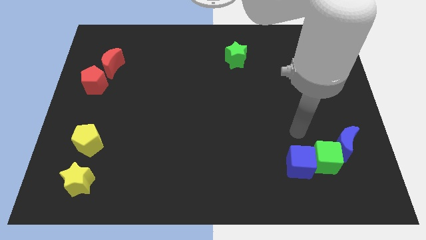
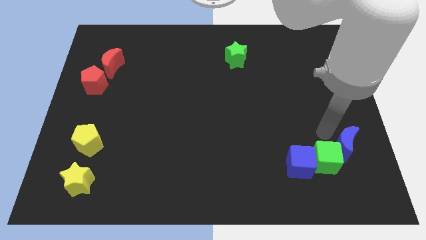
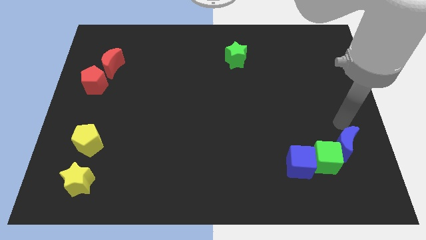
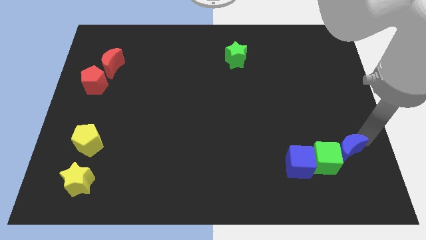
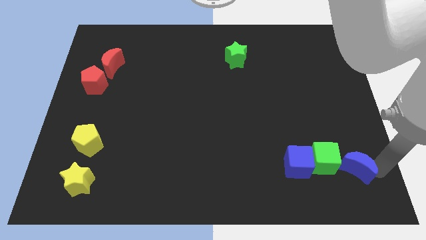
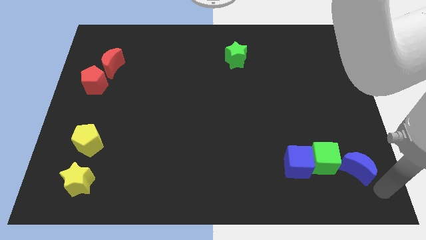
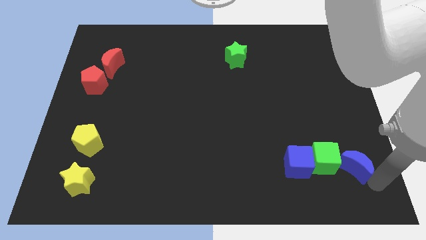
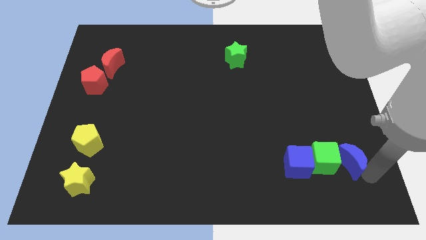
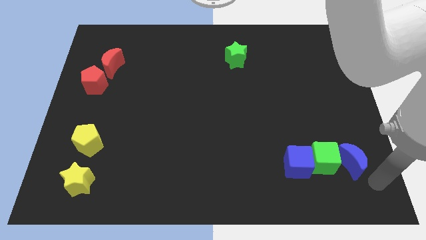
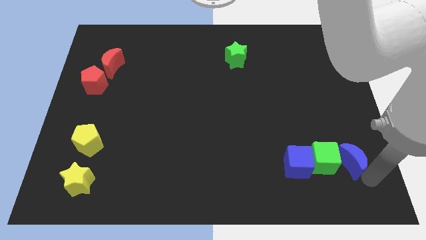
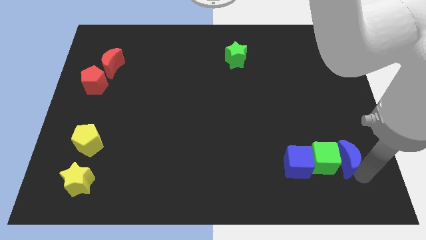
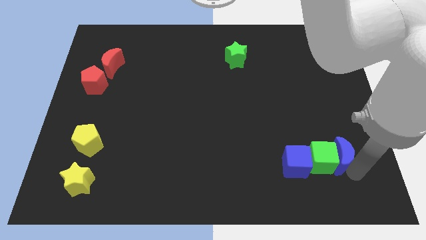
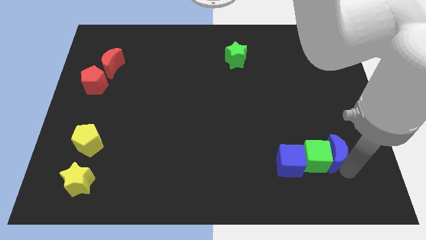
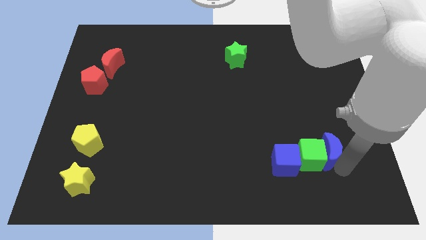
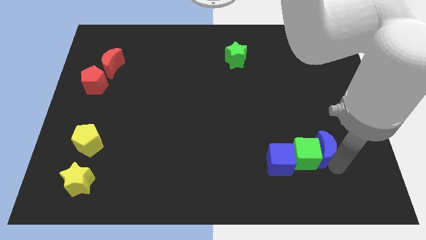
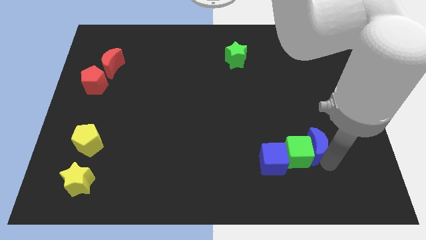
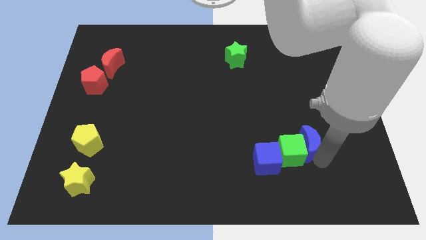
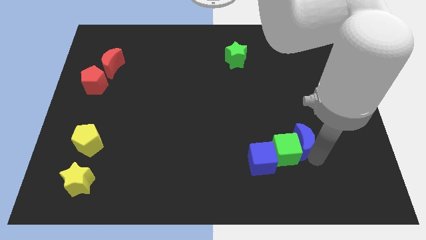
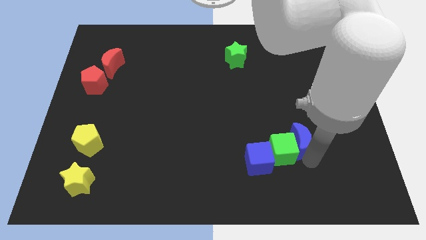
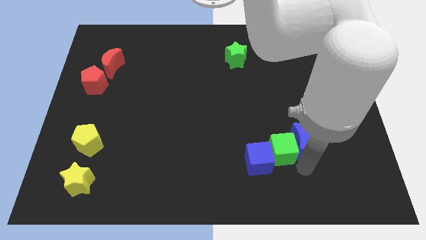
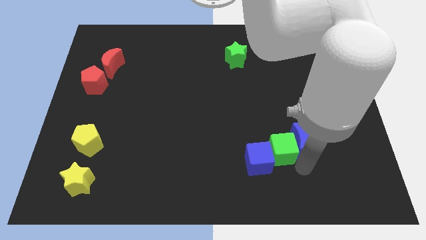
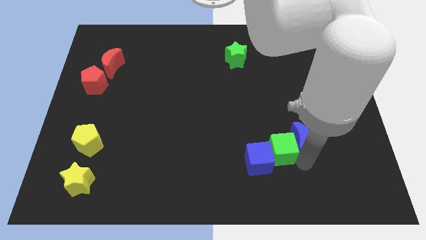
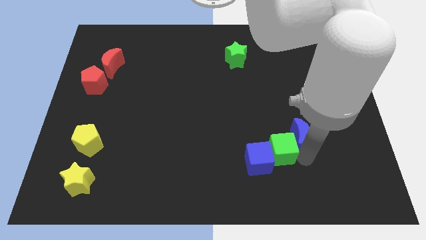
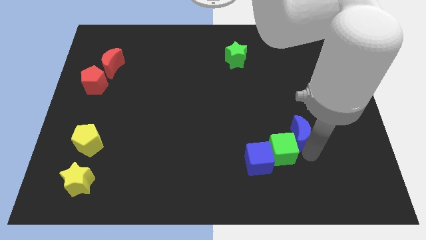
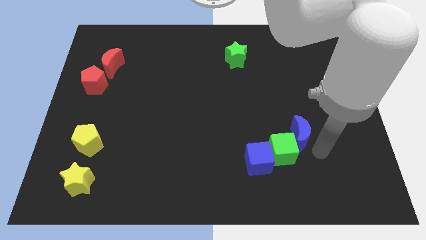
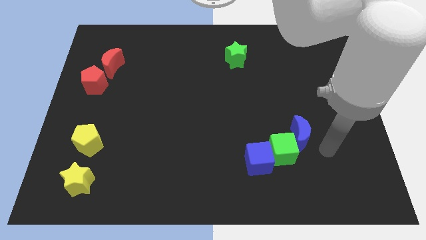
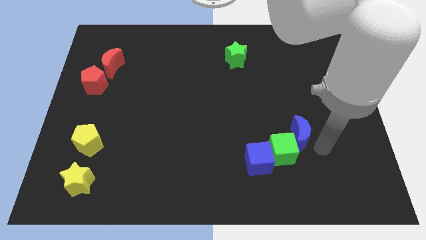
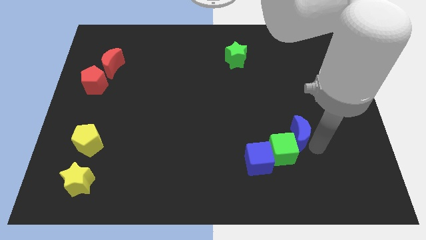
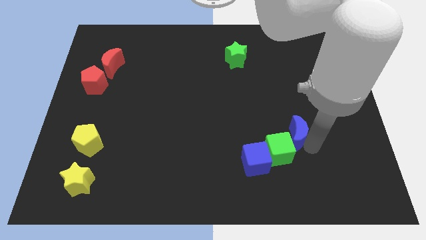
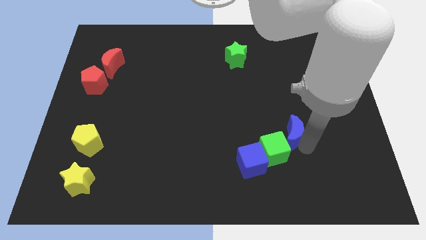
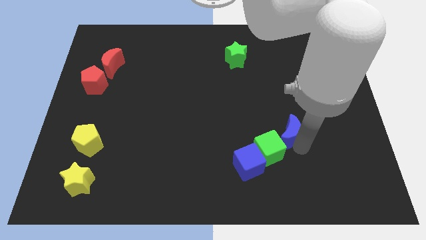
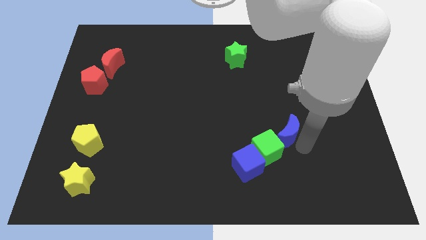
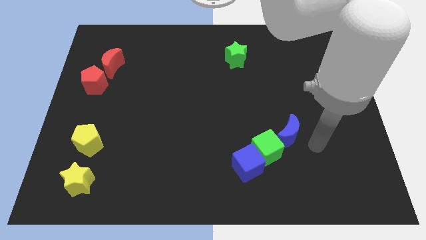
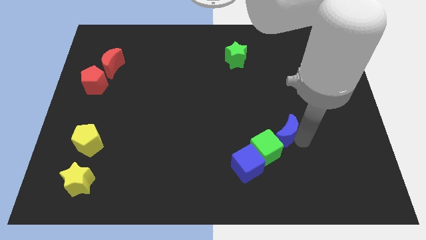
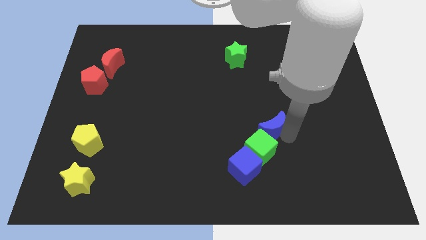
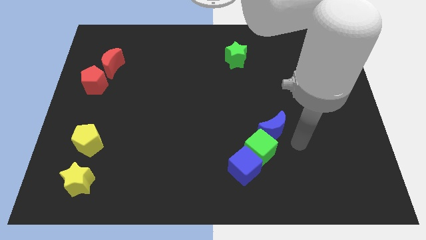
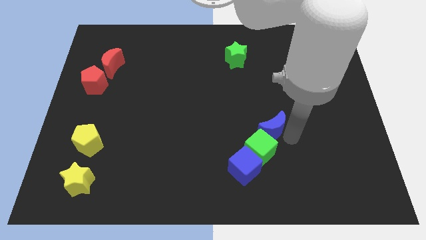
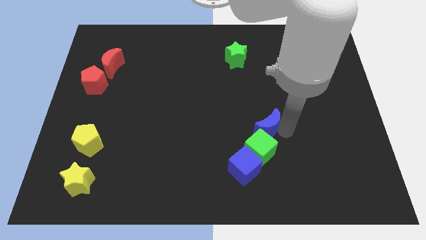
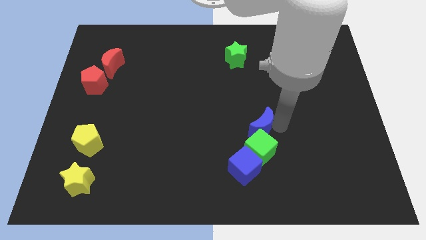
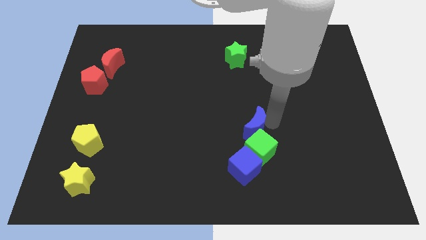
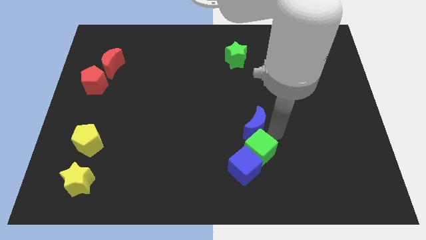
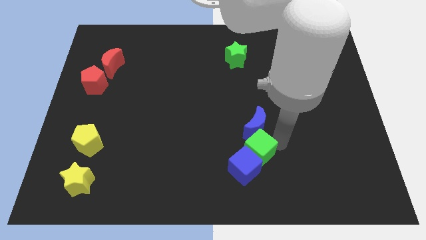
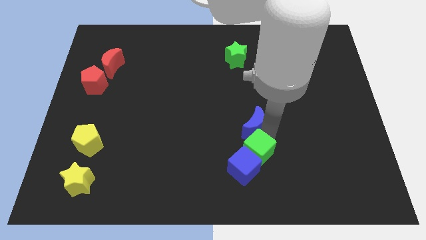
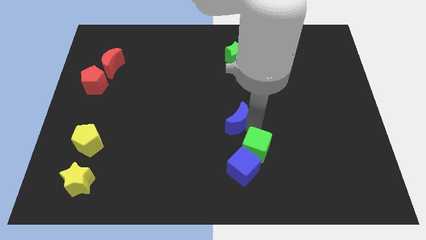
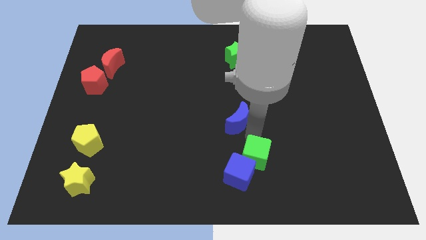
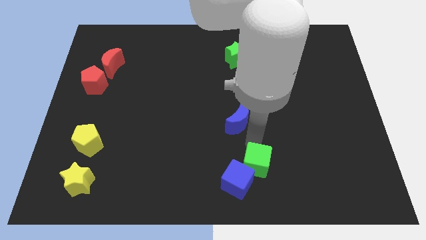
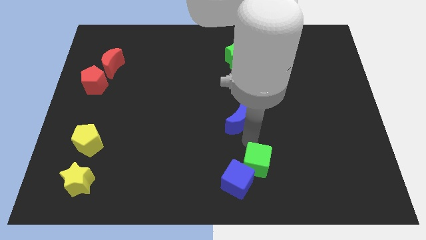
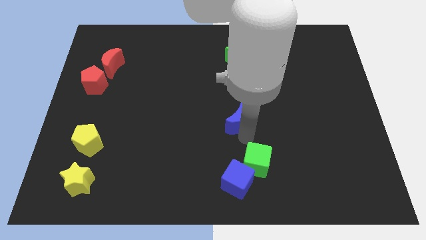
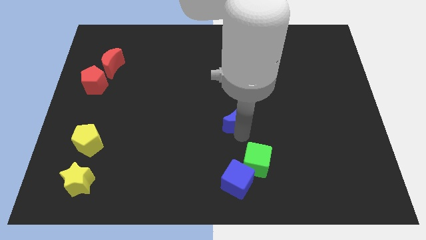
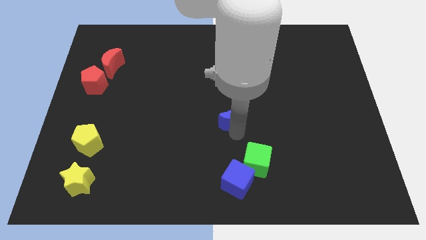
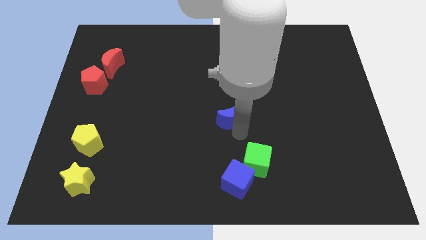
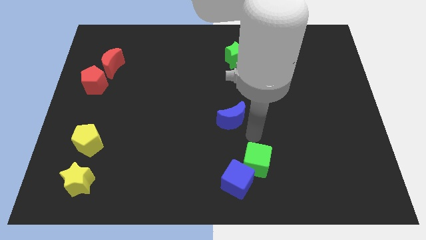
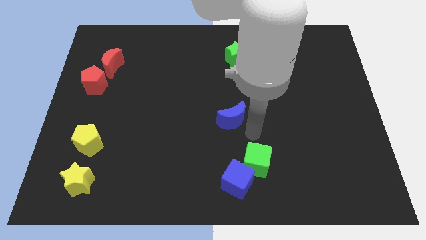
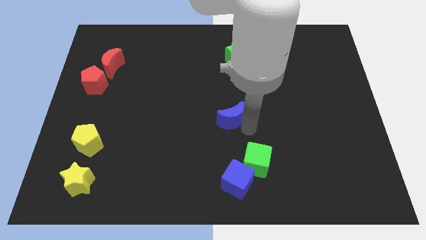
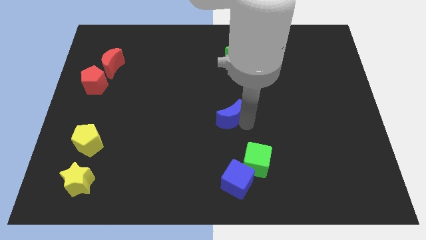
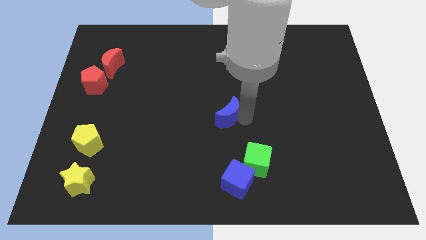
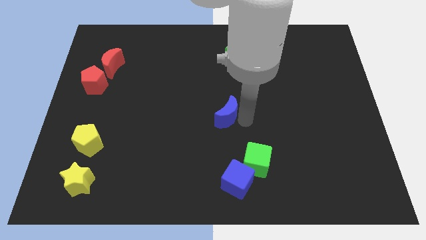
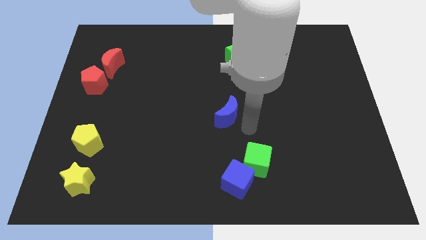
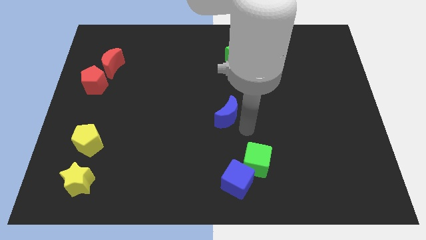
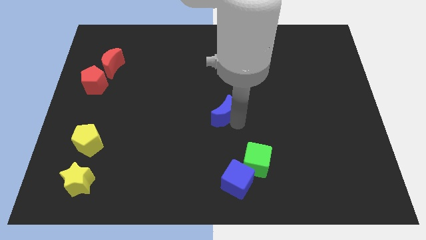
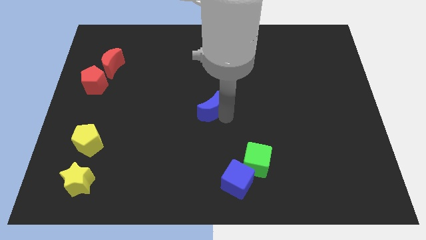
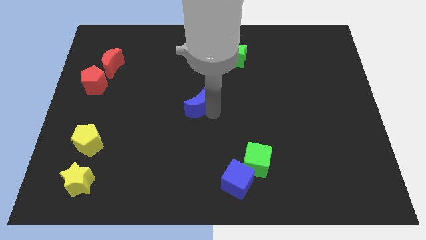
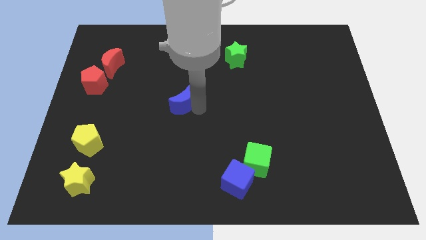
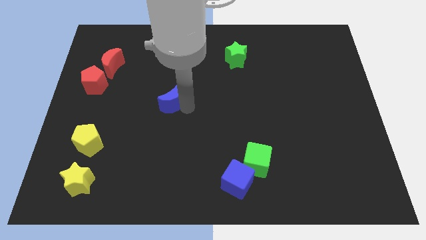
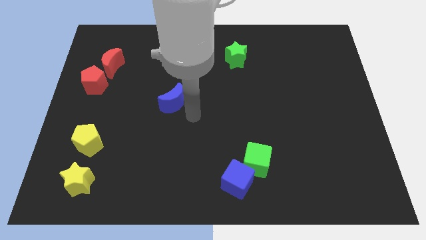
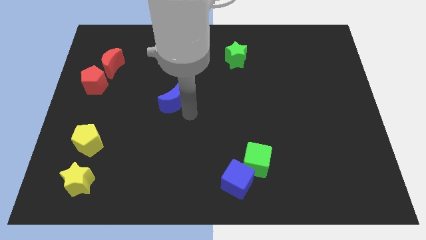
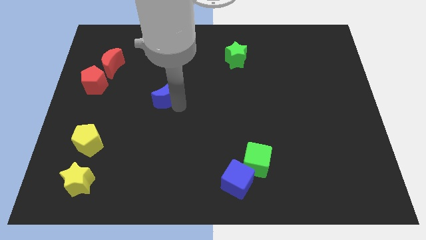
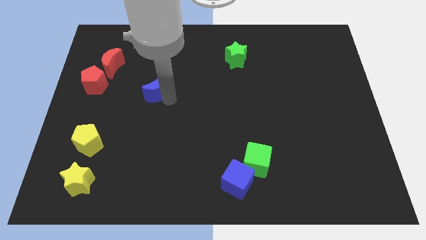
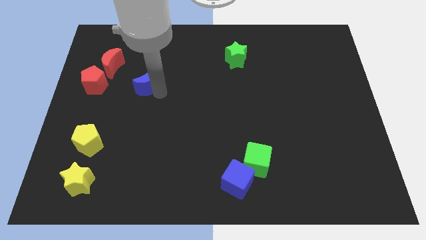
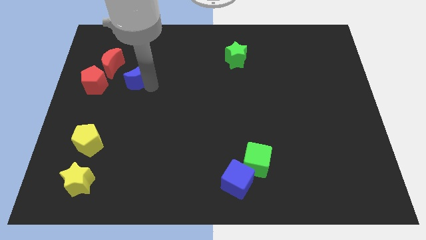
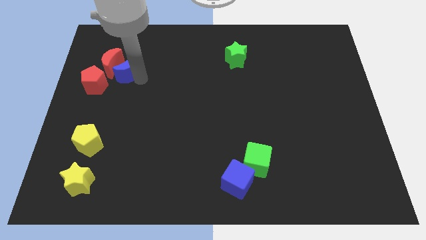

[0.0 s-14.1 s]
put the blue moon towards the red moon

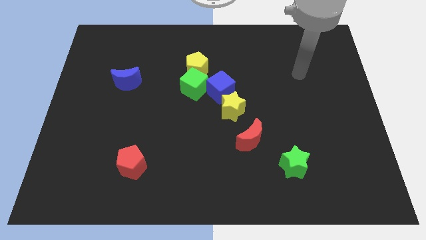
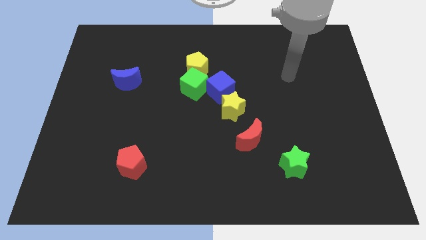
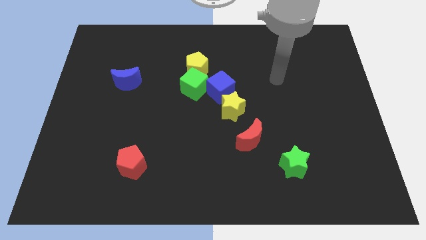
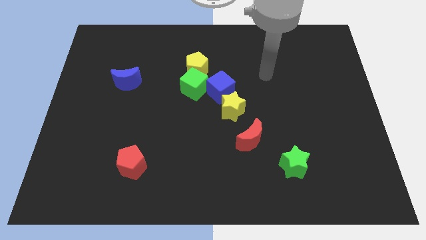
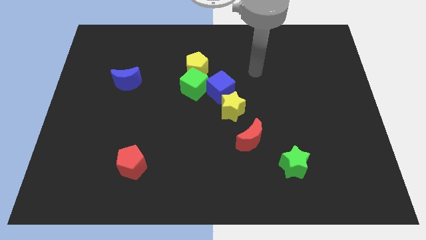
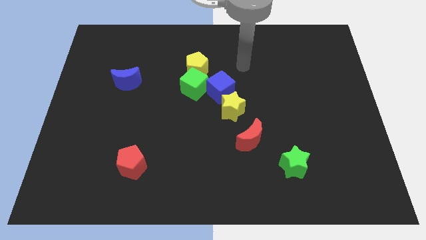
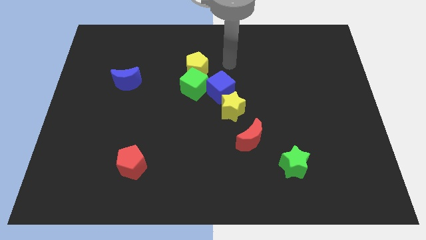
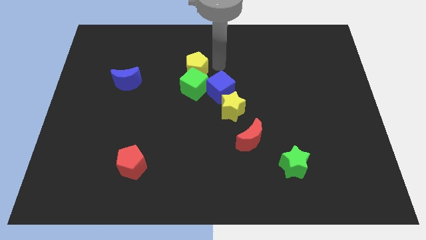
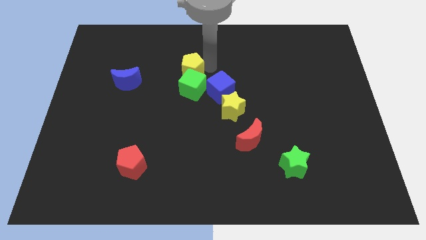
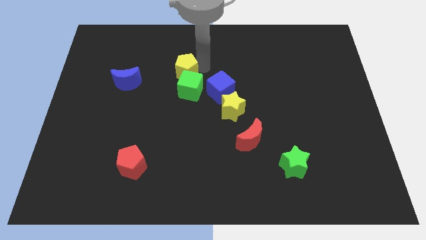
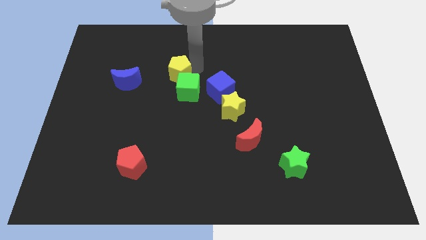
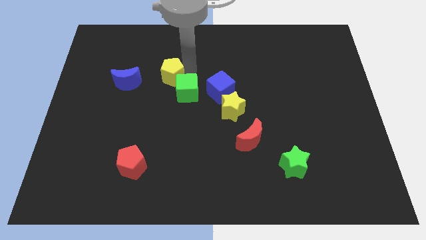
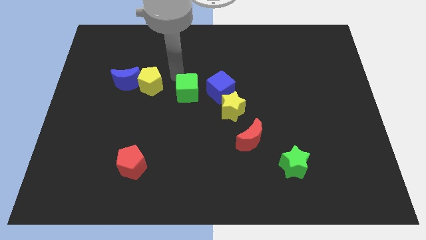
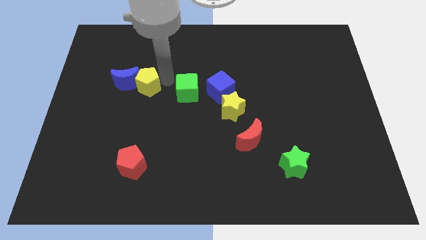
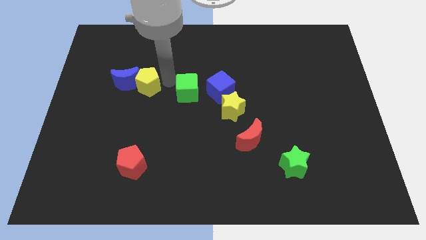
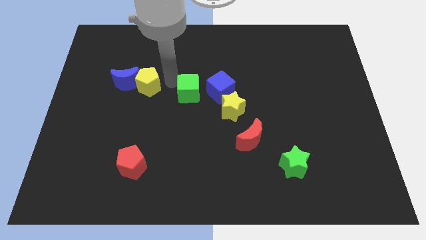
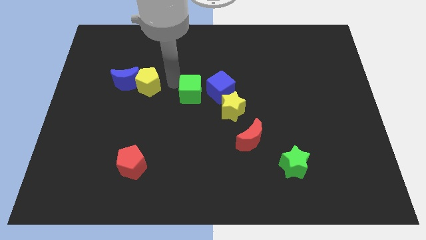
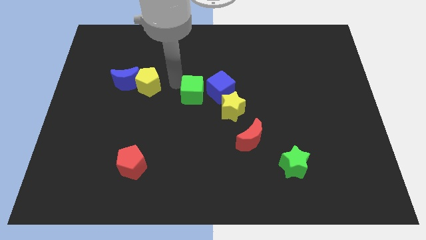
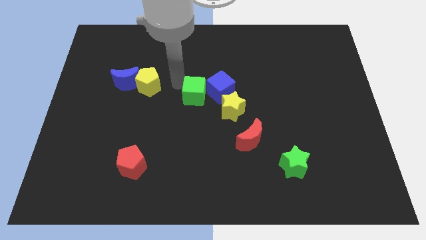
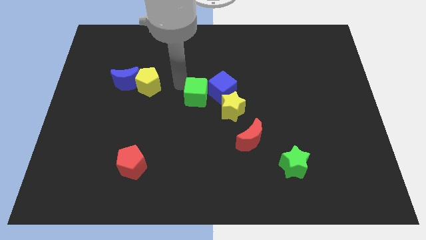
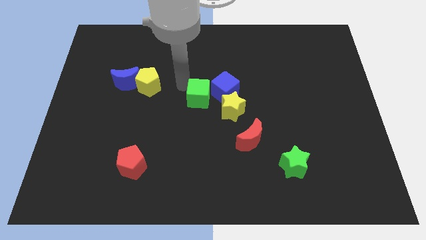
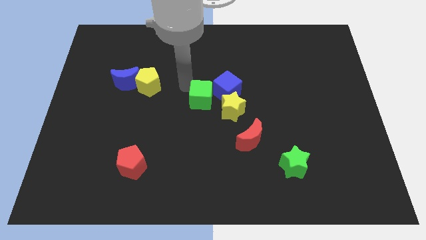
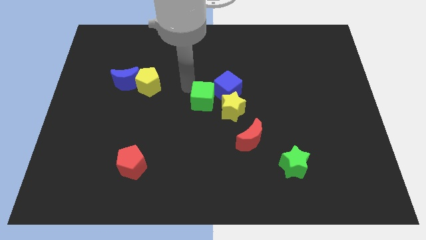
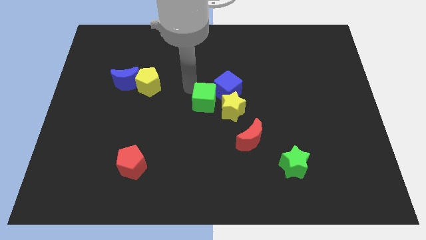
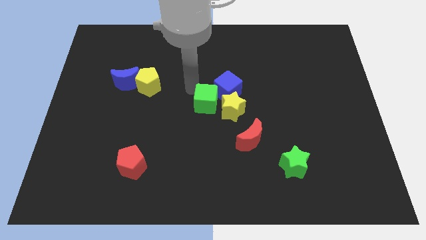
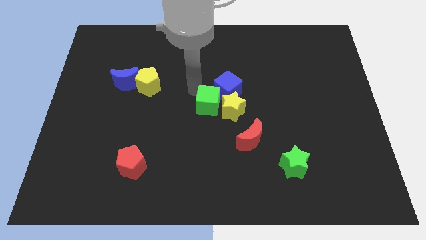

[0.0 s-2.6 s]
push the green cube to the yellow star
